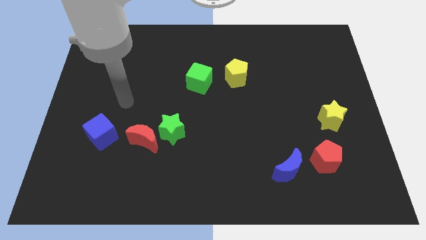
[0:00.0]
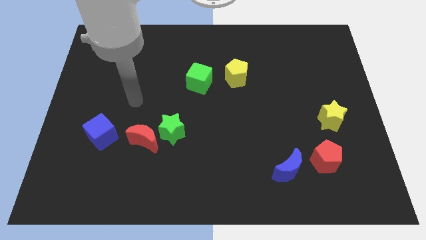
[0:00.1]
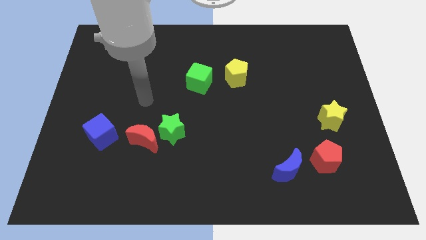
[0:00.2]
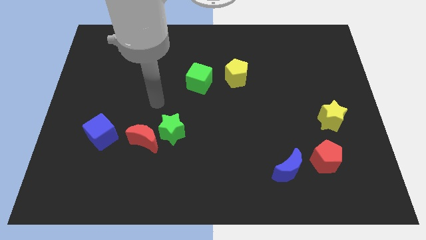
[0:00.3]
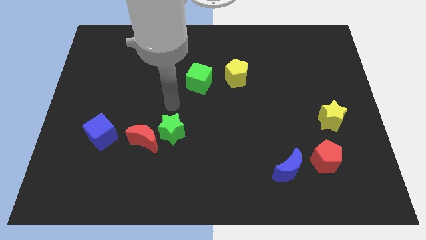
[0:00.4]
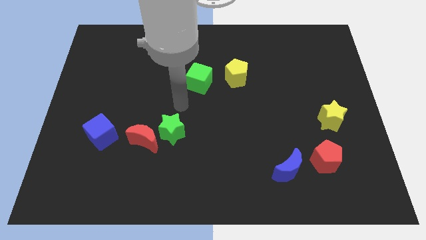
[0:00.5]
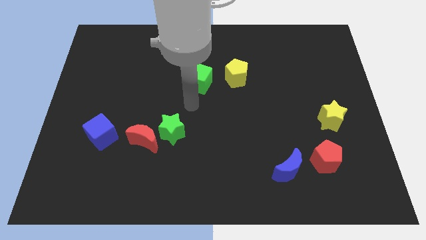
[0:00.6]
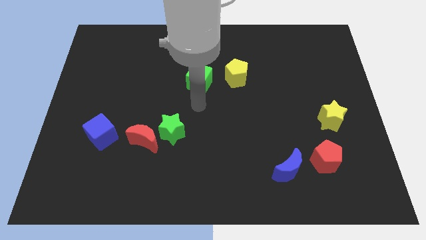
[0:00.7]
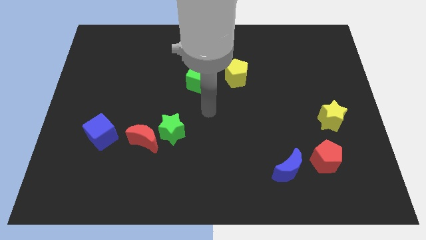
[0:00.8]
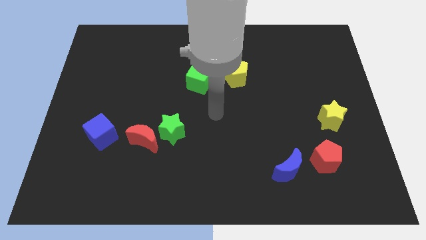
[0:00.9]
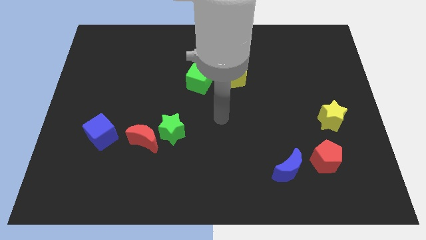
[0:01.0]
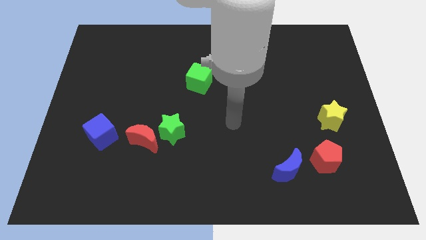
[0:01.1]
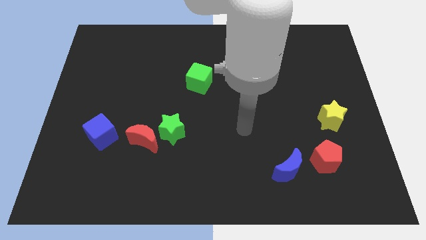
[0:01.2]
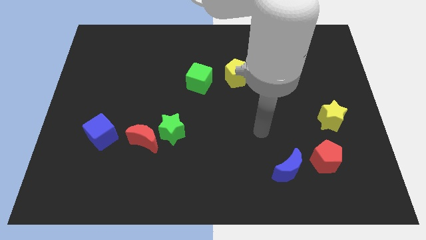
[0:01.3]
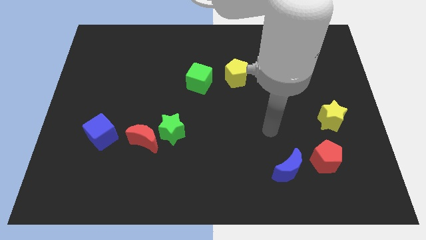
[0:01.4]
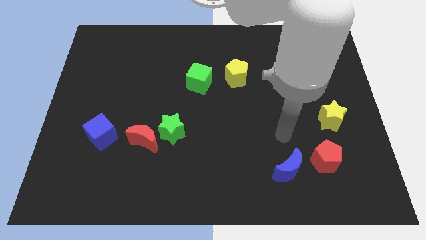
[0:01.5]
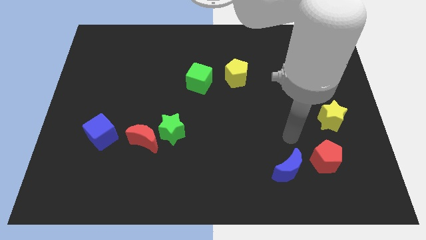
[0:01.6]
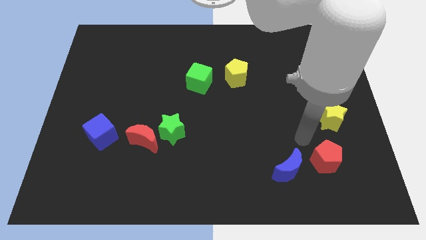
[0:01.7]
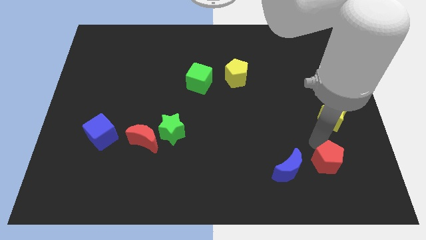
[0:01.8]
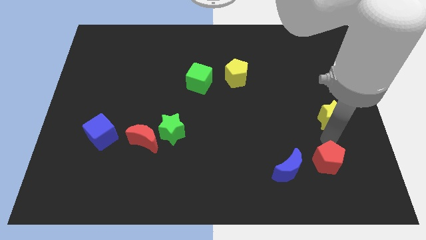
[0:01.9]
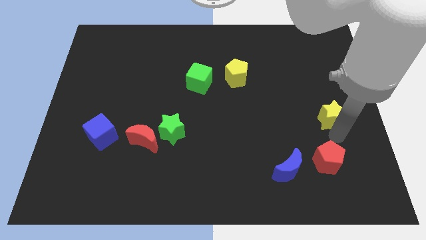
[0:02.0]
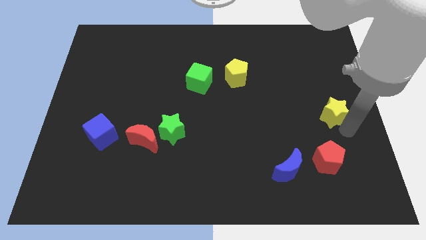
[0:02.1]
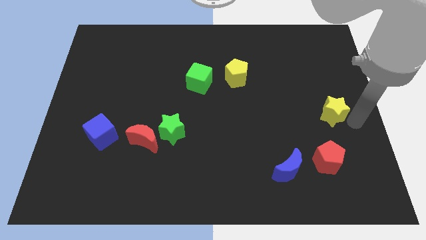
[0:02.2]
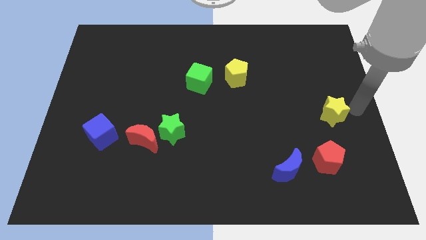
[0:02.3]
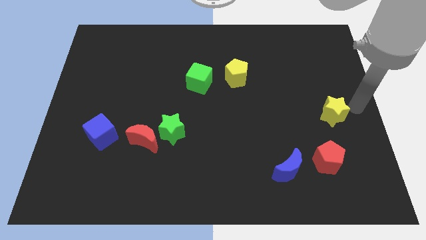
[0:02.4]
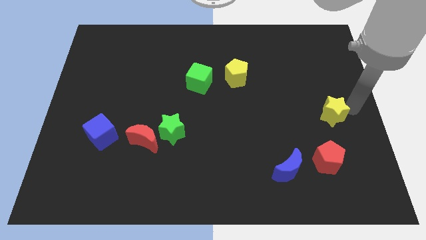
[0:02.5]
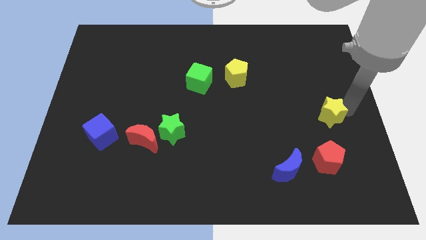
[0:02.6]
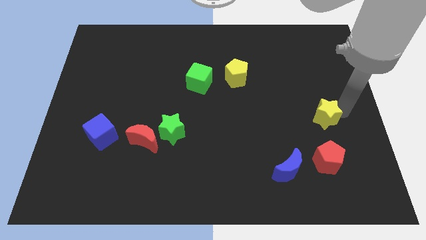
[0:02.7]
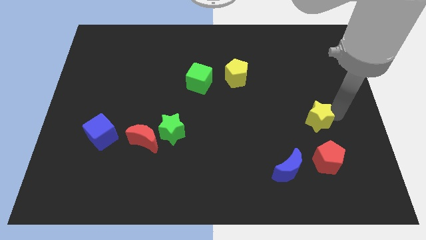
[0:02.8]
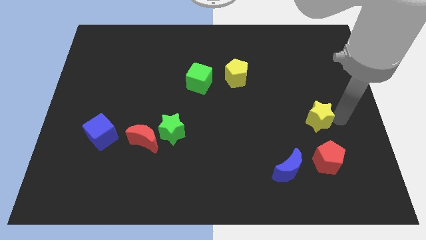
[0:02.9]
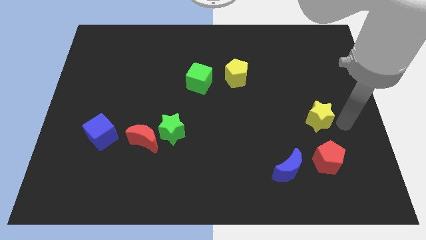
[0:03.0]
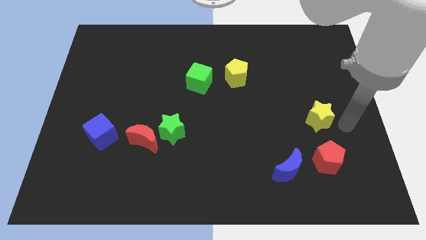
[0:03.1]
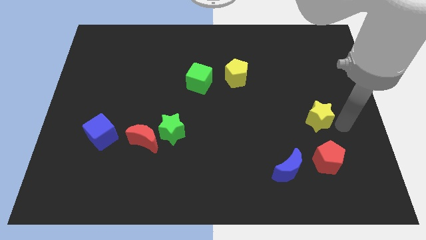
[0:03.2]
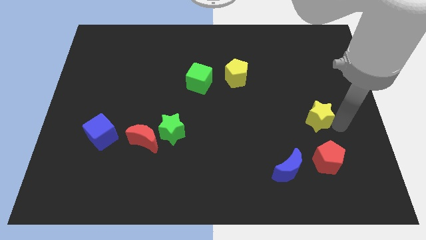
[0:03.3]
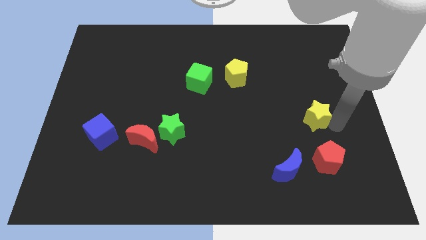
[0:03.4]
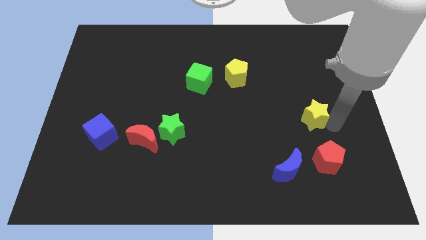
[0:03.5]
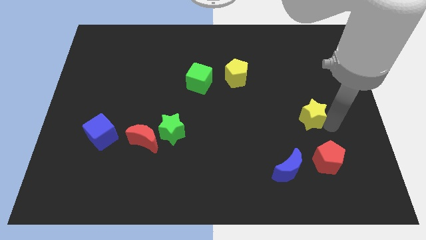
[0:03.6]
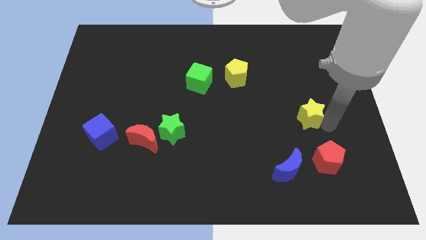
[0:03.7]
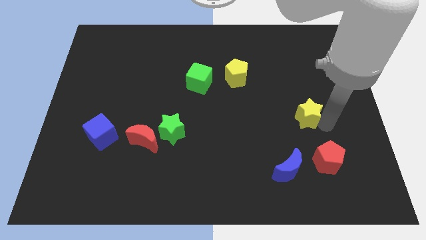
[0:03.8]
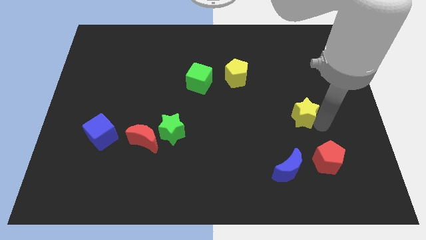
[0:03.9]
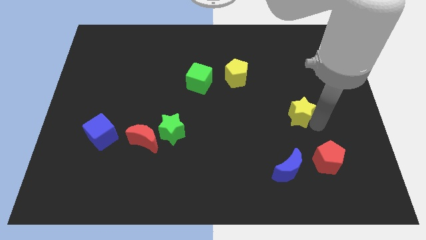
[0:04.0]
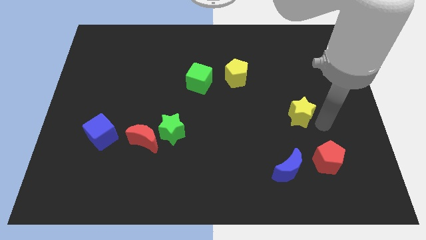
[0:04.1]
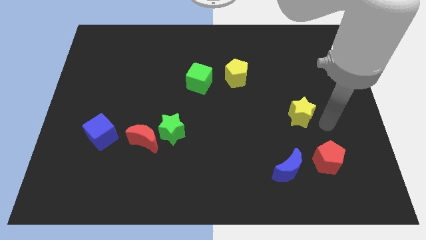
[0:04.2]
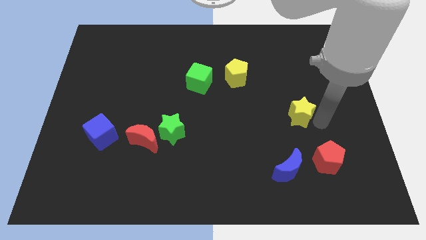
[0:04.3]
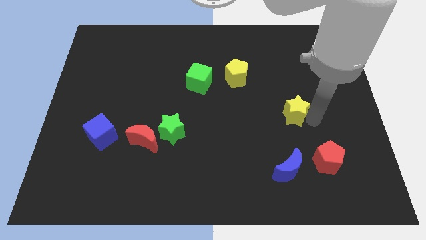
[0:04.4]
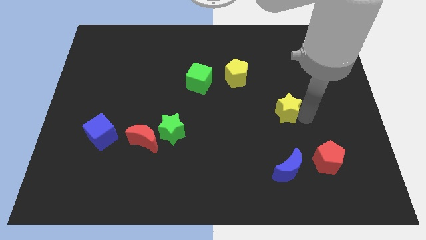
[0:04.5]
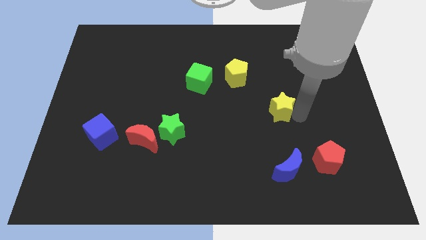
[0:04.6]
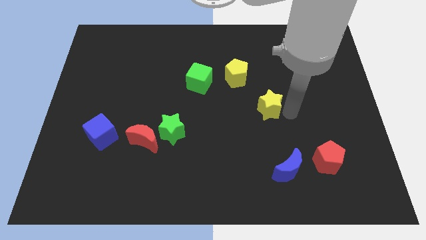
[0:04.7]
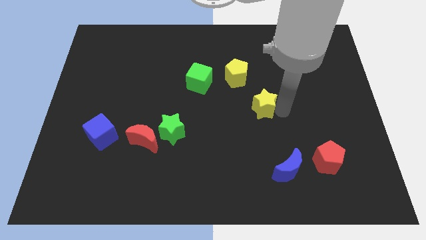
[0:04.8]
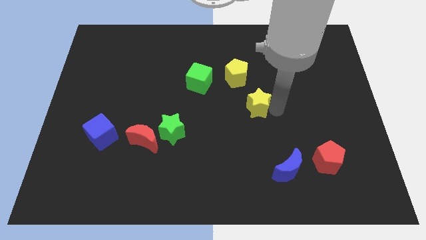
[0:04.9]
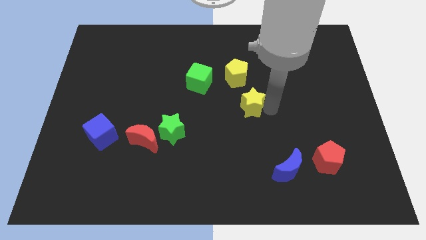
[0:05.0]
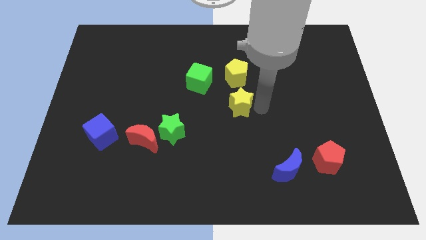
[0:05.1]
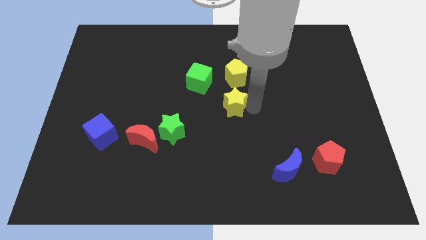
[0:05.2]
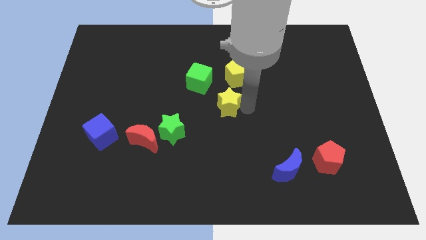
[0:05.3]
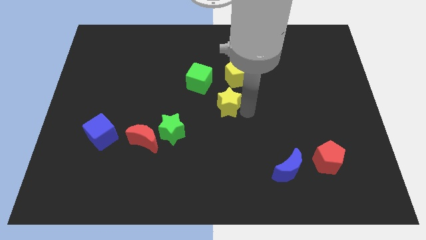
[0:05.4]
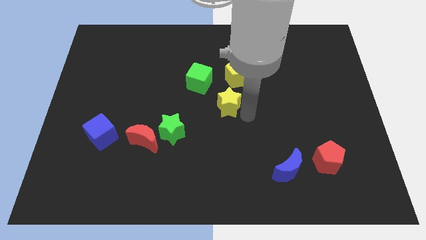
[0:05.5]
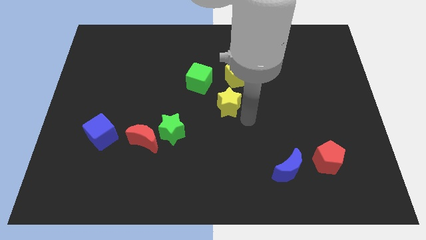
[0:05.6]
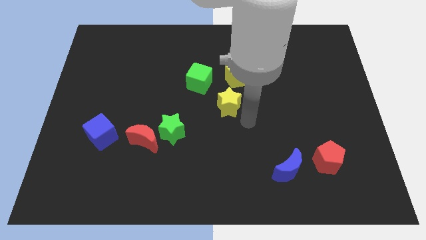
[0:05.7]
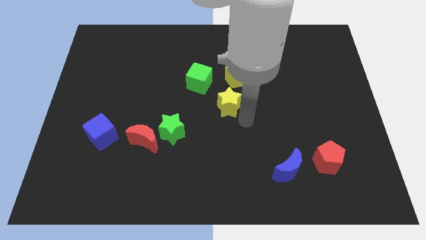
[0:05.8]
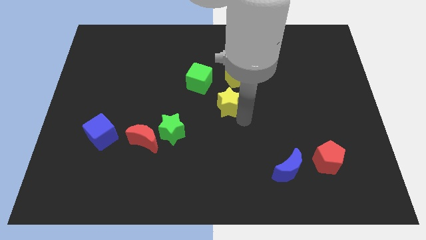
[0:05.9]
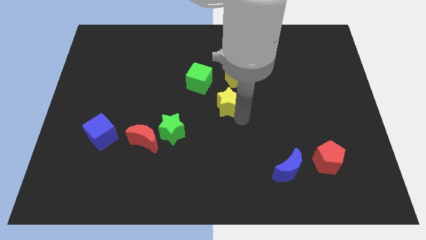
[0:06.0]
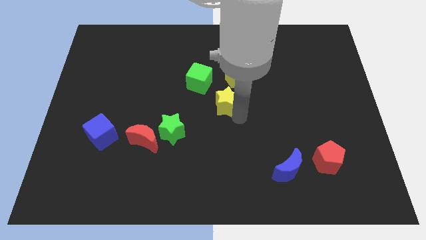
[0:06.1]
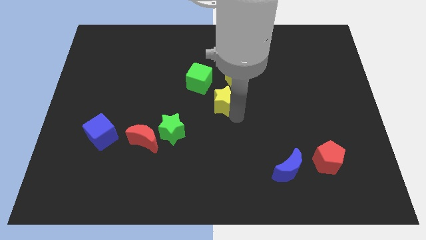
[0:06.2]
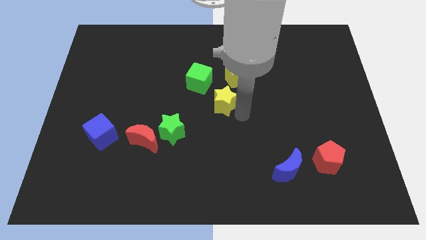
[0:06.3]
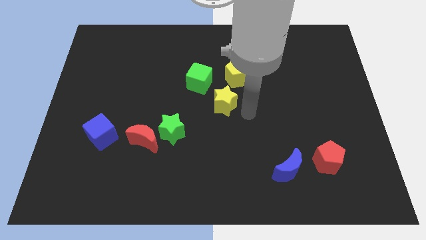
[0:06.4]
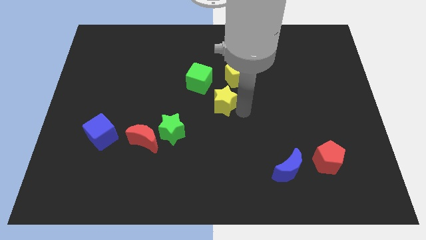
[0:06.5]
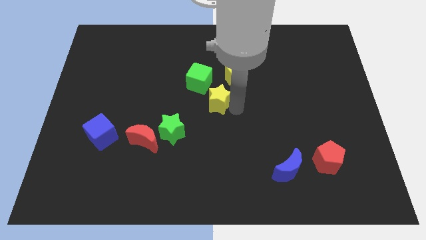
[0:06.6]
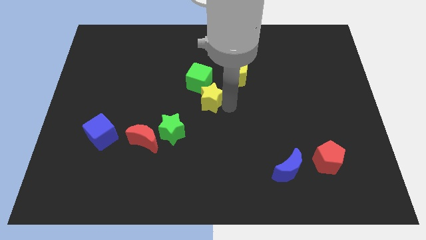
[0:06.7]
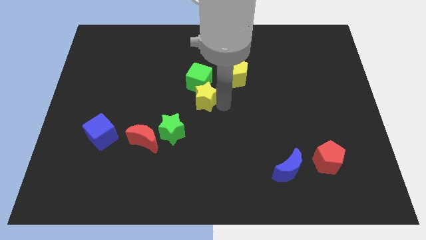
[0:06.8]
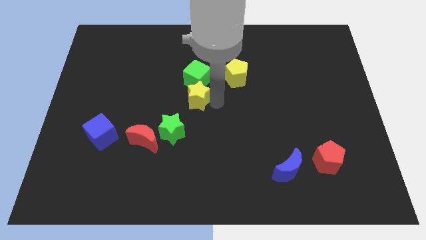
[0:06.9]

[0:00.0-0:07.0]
push the yellow star to the bottom left side of the green cube
